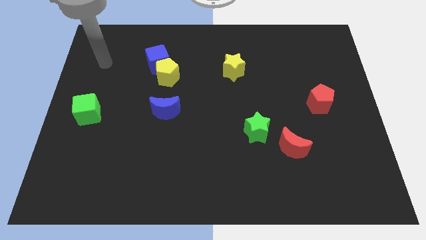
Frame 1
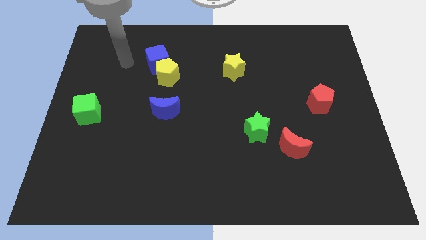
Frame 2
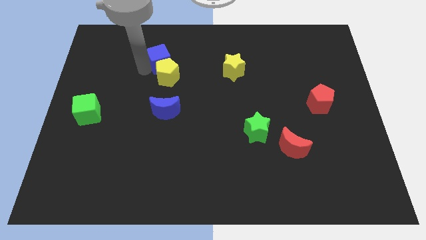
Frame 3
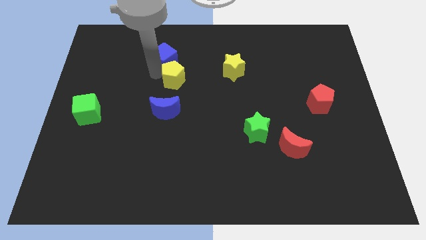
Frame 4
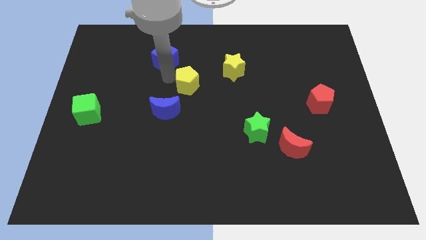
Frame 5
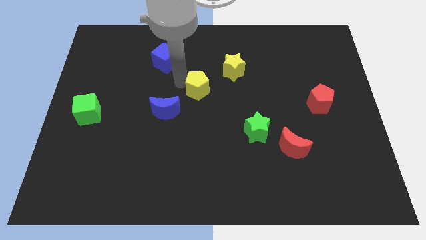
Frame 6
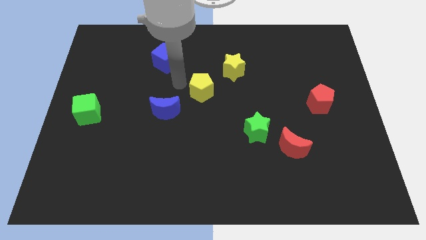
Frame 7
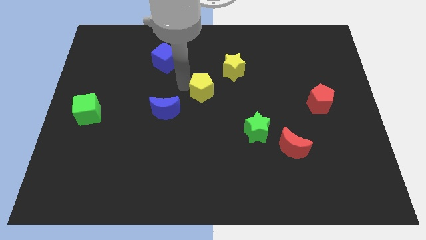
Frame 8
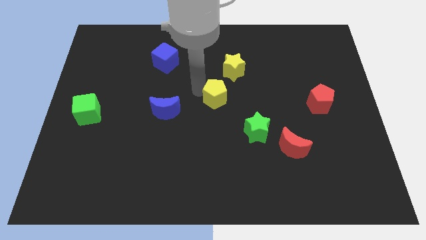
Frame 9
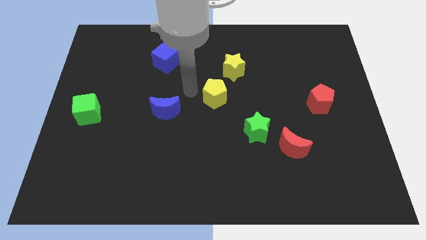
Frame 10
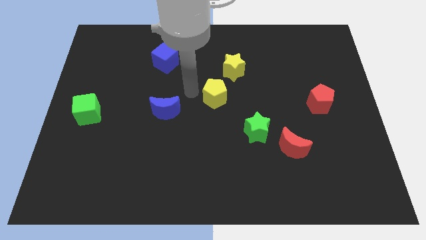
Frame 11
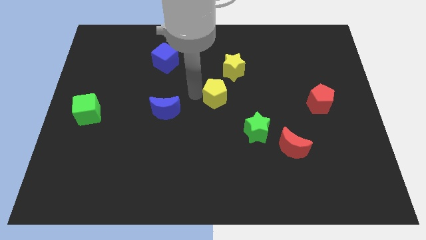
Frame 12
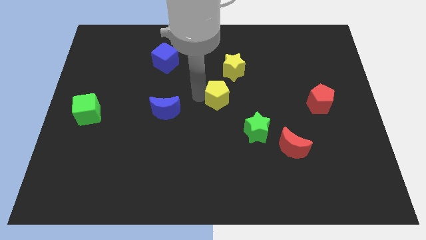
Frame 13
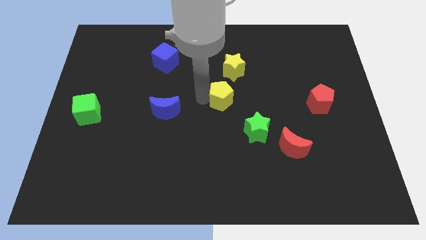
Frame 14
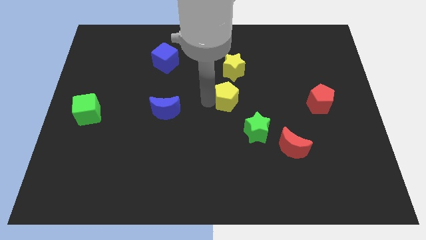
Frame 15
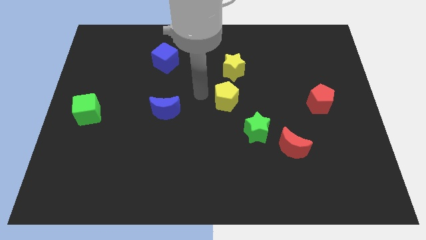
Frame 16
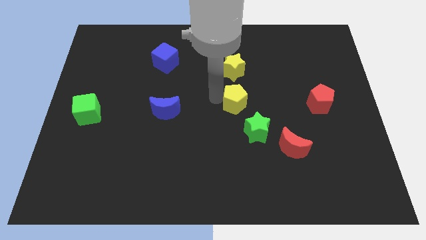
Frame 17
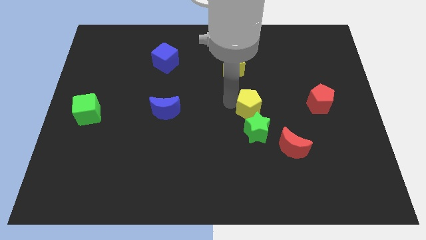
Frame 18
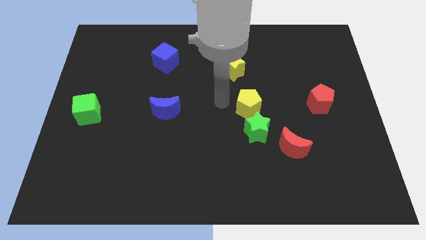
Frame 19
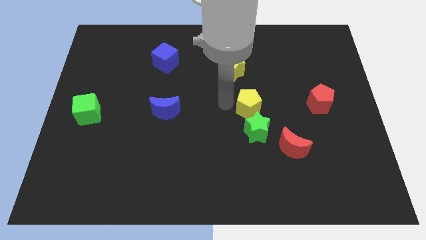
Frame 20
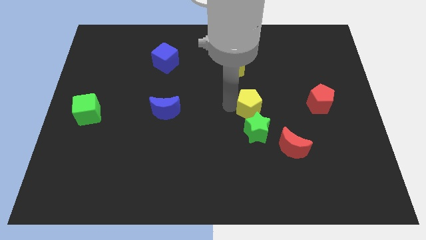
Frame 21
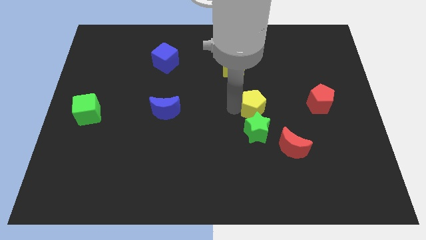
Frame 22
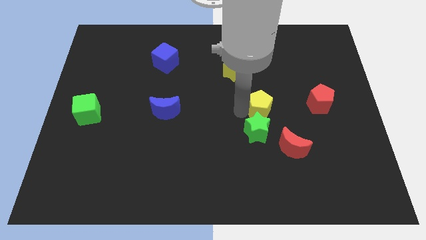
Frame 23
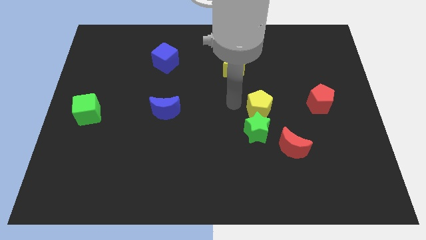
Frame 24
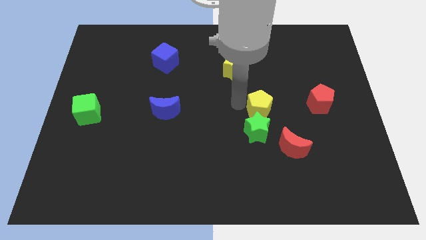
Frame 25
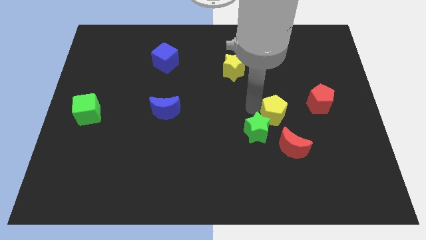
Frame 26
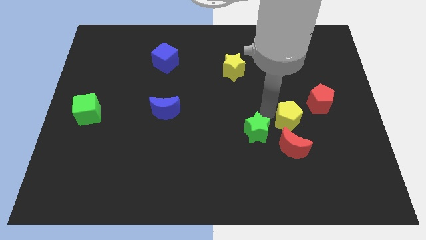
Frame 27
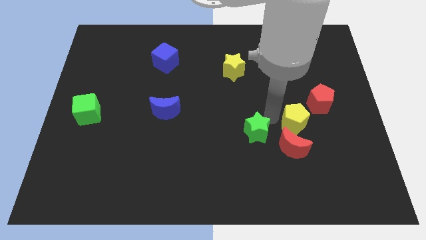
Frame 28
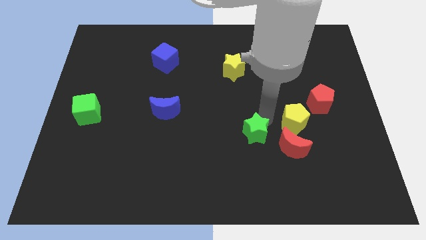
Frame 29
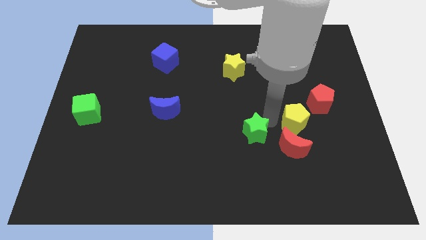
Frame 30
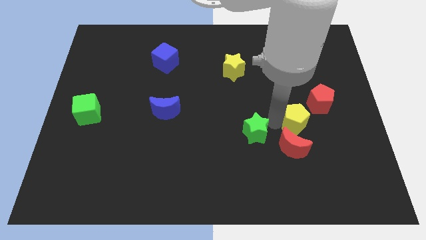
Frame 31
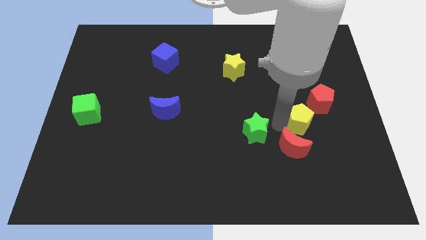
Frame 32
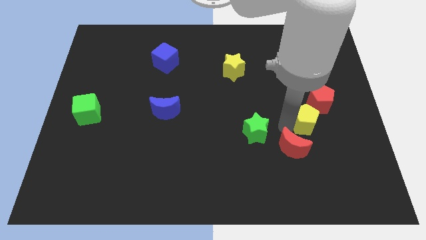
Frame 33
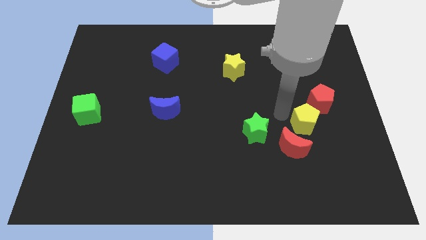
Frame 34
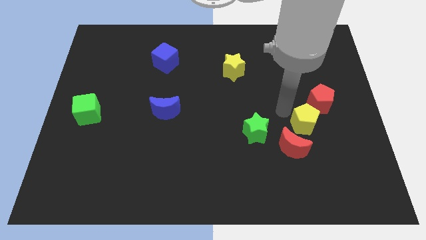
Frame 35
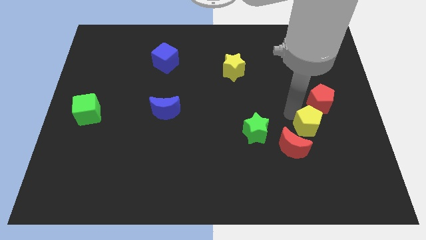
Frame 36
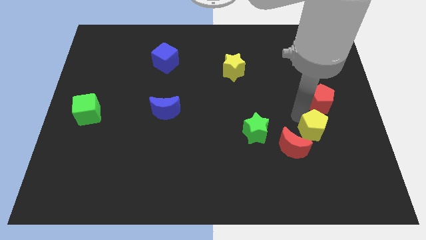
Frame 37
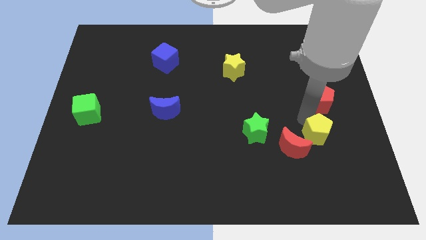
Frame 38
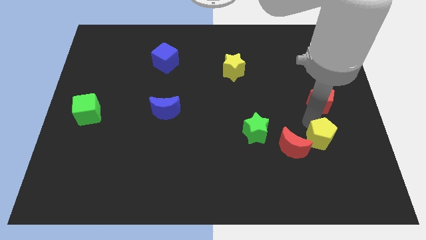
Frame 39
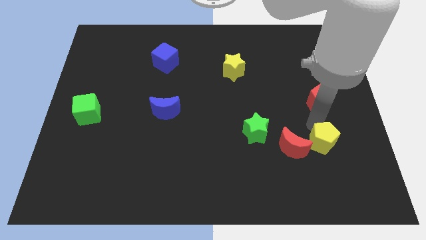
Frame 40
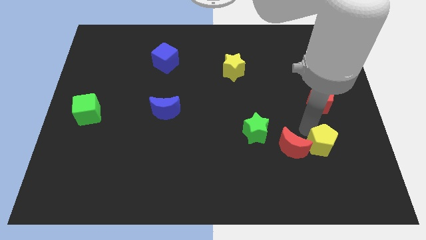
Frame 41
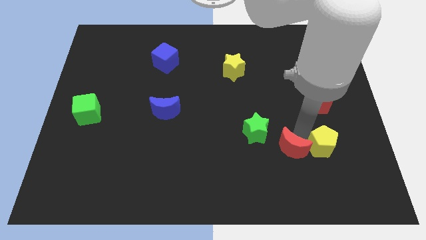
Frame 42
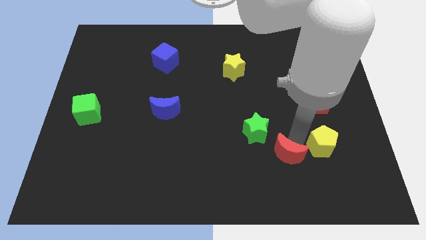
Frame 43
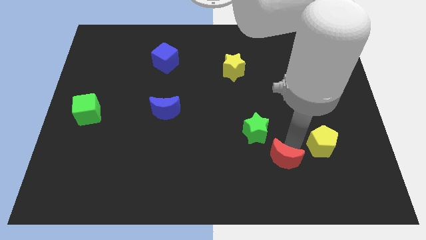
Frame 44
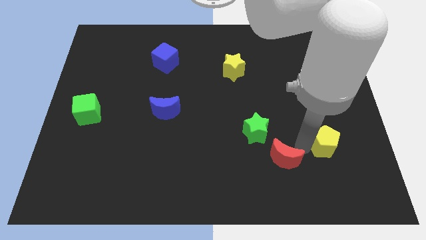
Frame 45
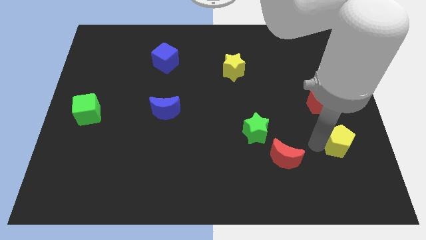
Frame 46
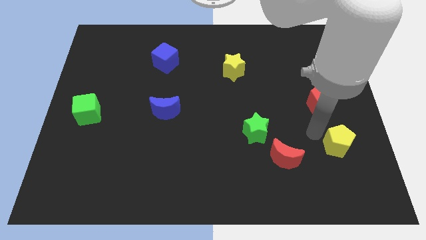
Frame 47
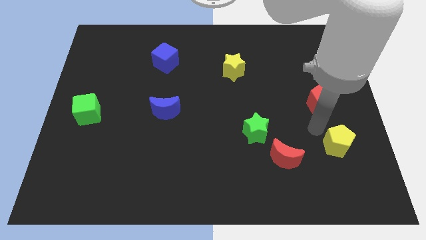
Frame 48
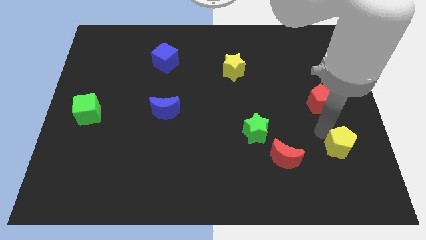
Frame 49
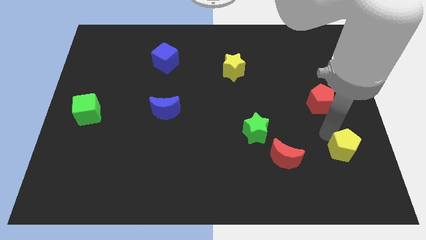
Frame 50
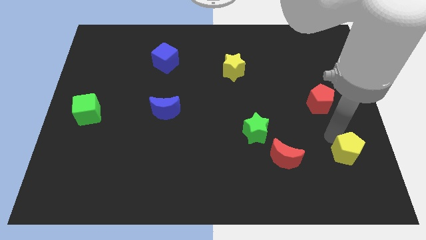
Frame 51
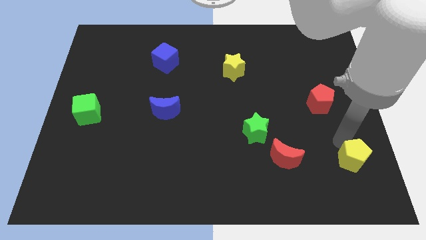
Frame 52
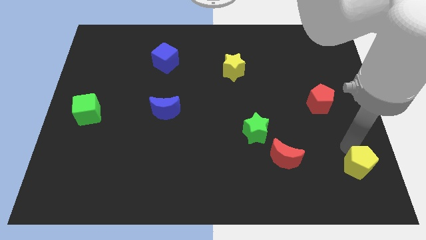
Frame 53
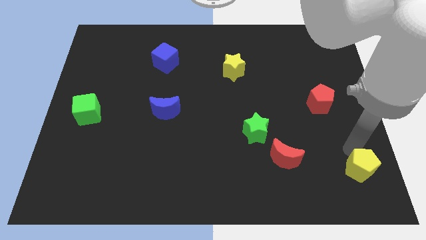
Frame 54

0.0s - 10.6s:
slide the yellow pentagon to the bottom right

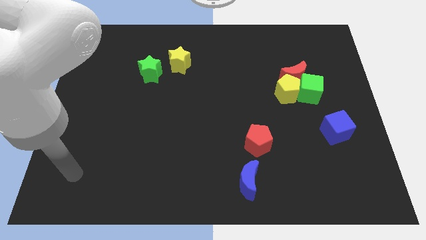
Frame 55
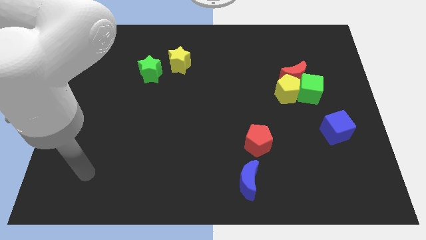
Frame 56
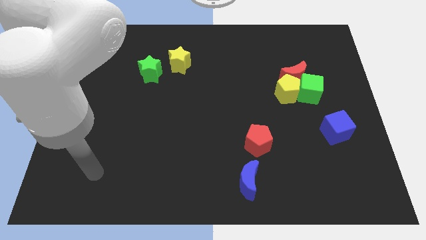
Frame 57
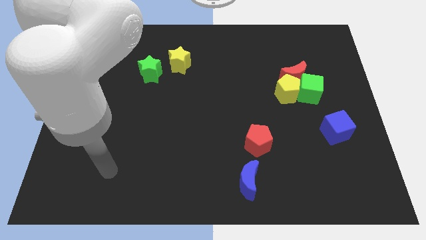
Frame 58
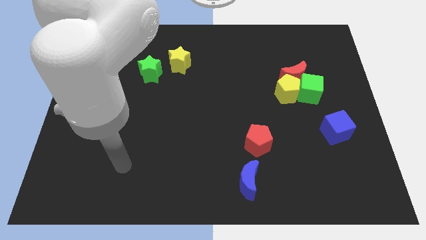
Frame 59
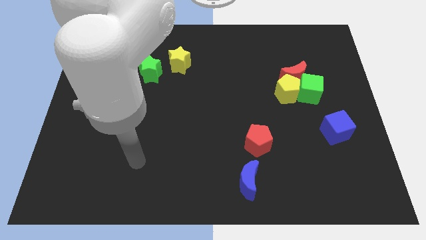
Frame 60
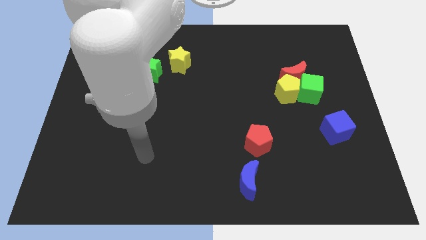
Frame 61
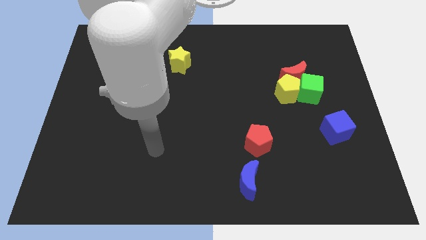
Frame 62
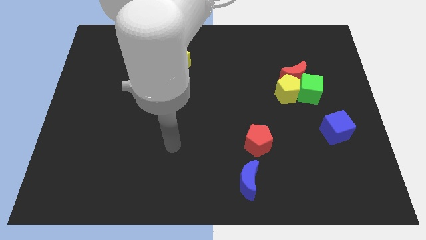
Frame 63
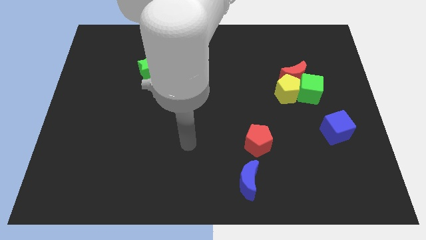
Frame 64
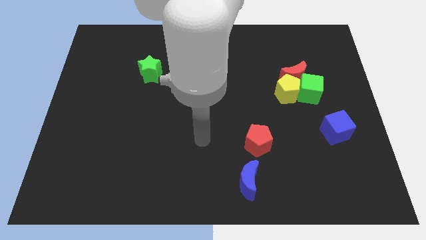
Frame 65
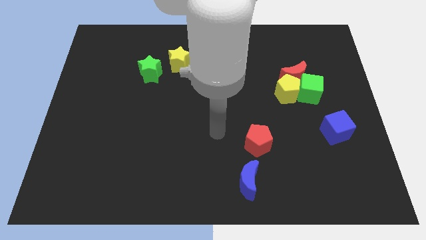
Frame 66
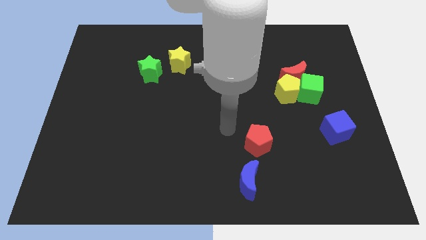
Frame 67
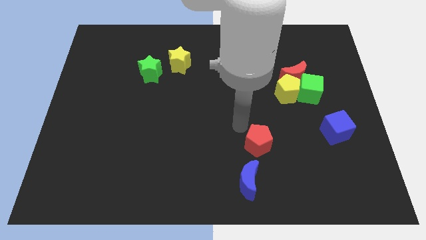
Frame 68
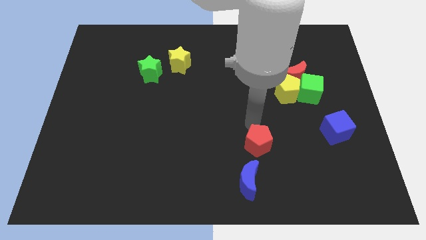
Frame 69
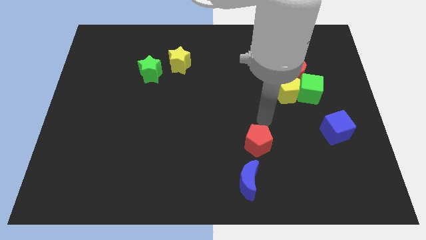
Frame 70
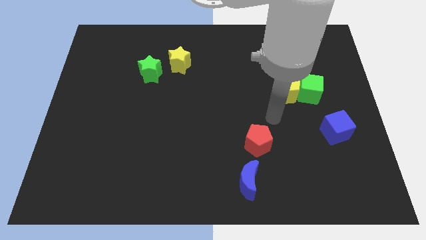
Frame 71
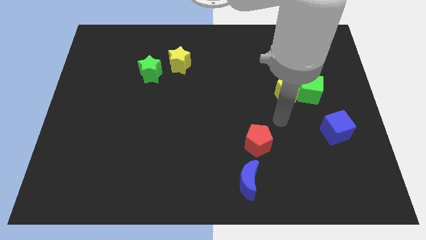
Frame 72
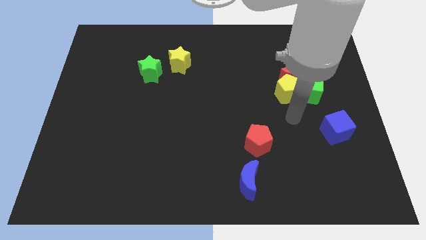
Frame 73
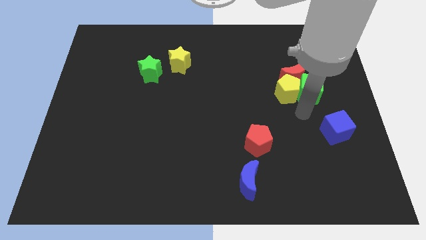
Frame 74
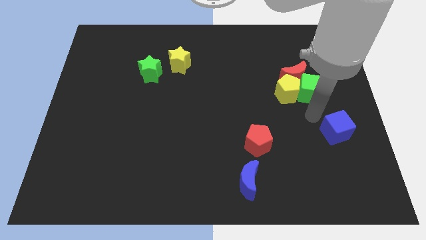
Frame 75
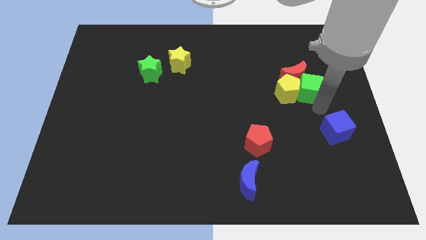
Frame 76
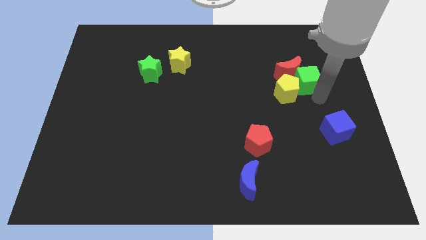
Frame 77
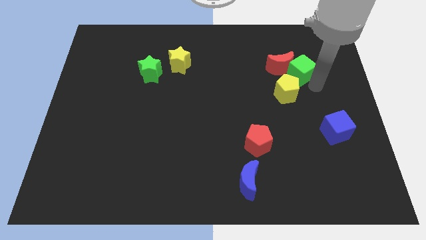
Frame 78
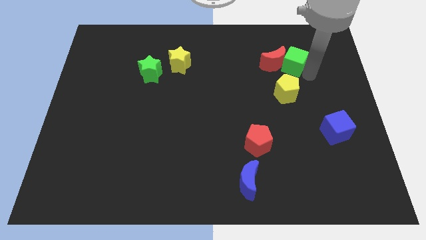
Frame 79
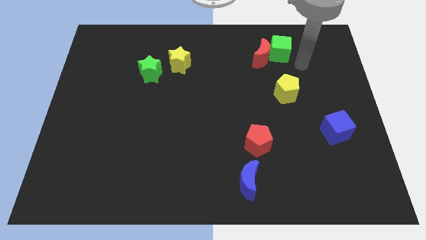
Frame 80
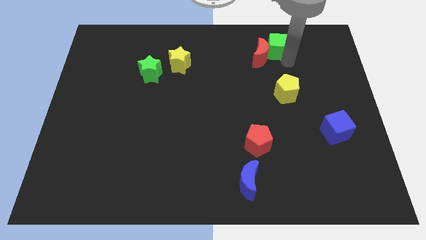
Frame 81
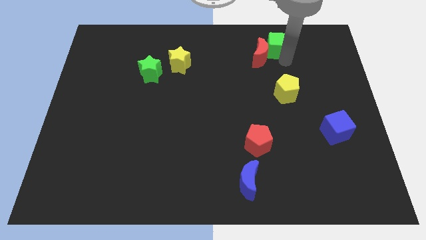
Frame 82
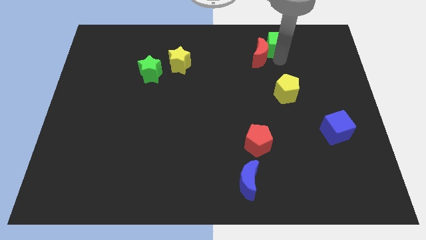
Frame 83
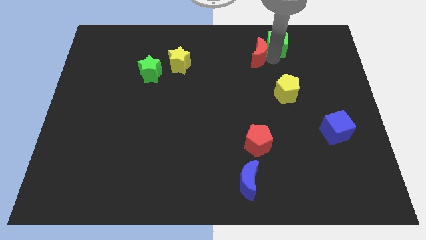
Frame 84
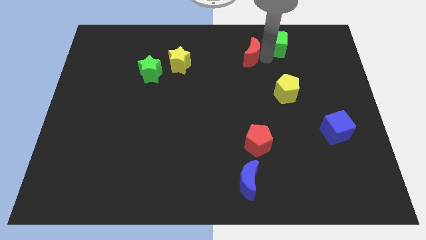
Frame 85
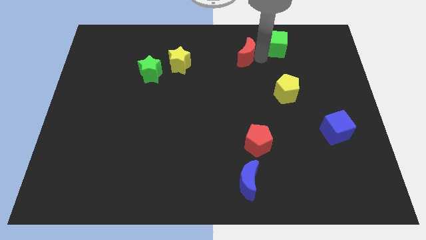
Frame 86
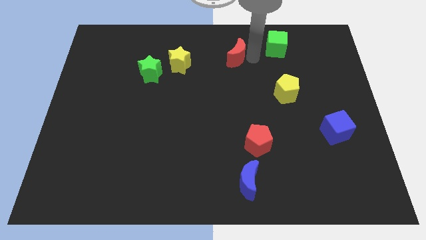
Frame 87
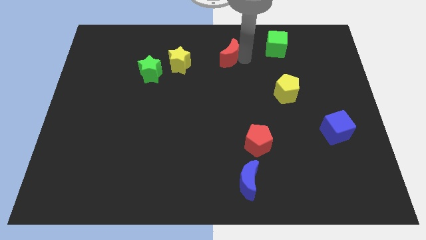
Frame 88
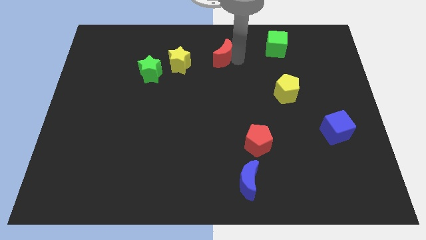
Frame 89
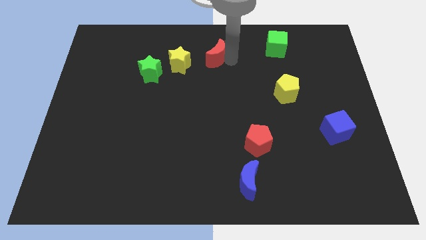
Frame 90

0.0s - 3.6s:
put the red moon to the towards your base
